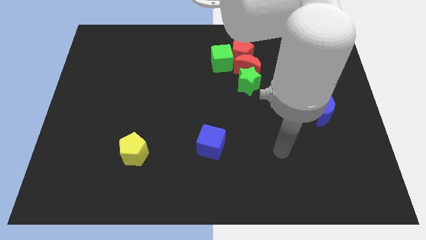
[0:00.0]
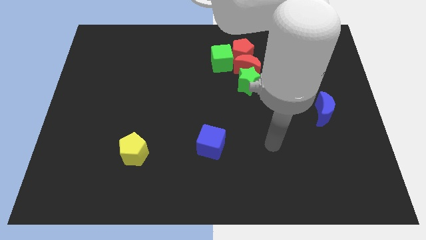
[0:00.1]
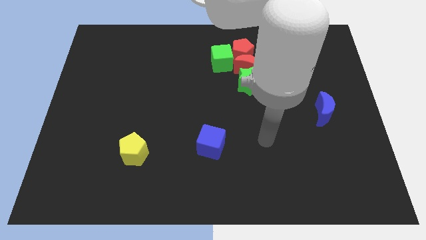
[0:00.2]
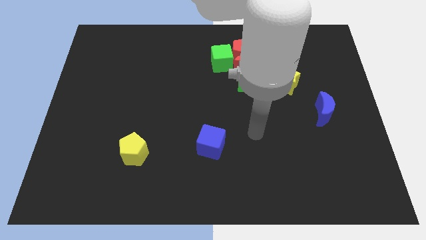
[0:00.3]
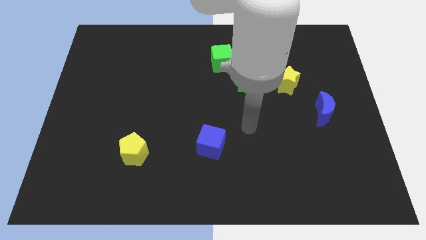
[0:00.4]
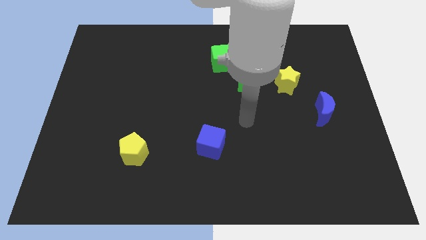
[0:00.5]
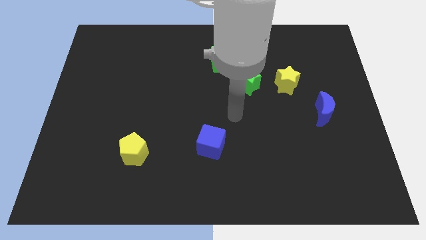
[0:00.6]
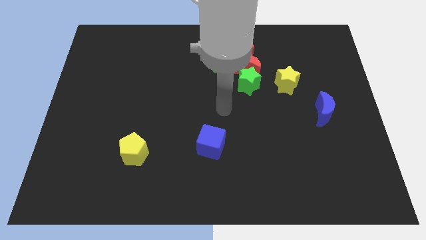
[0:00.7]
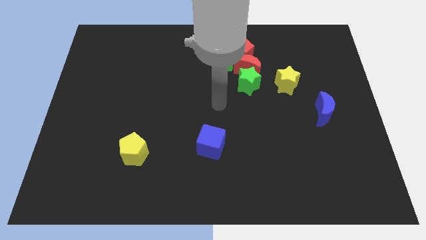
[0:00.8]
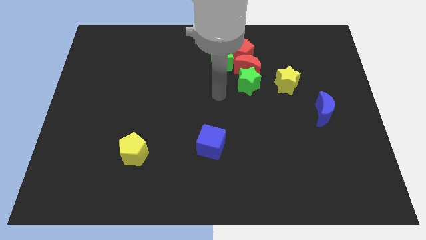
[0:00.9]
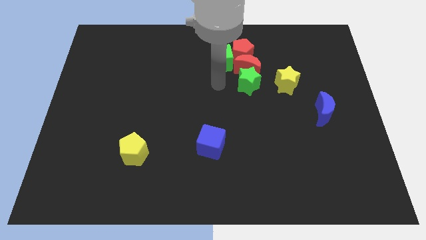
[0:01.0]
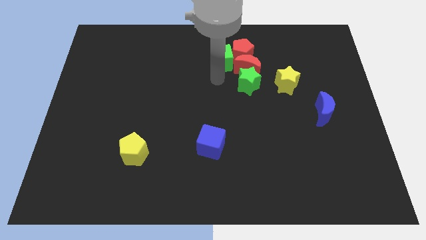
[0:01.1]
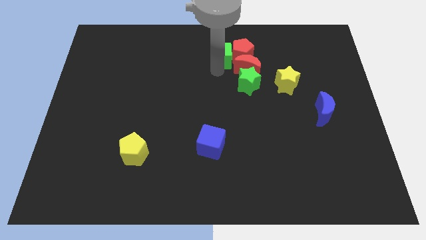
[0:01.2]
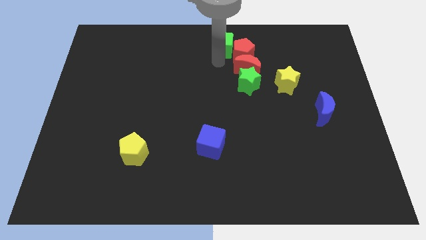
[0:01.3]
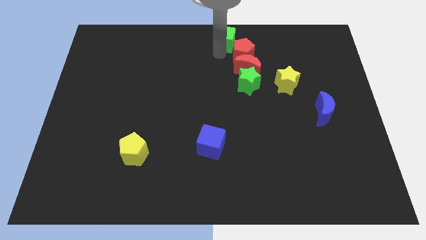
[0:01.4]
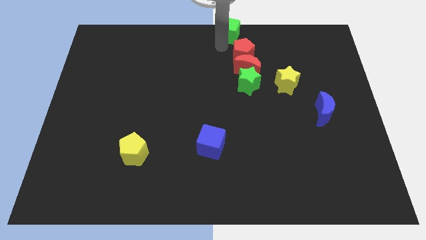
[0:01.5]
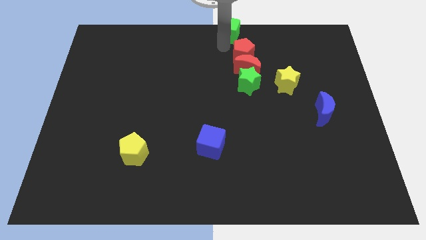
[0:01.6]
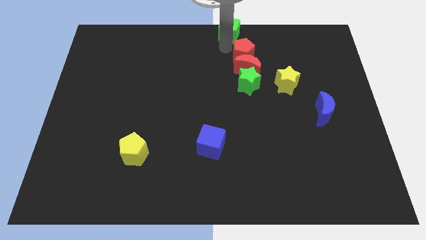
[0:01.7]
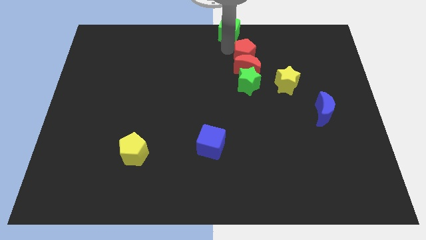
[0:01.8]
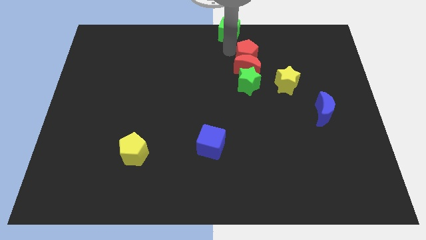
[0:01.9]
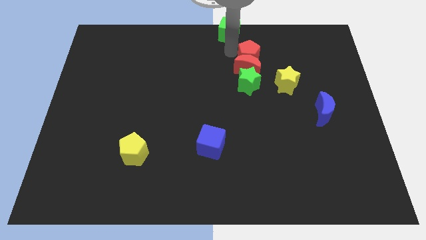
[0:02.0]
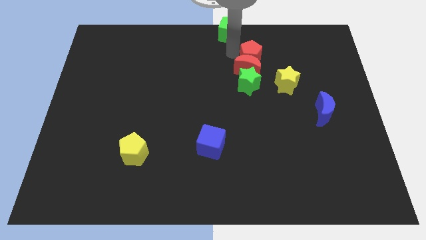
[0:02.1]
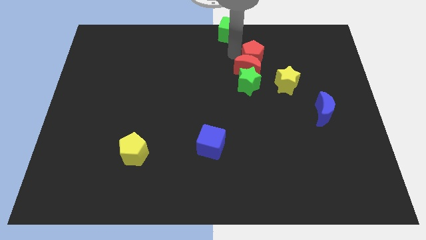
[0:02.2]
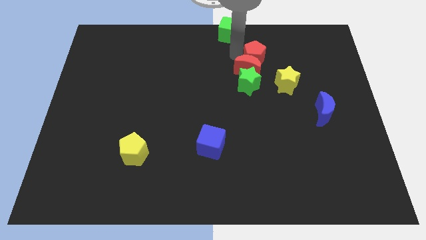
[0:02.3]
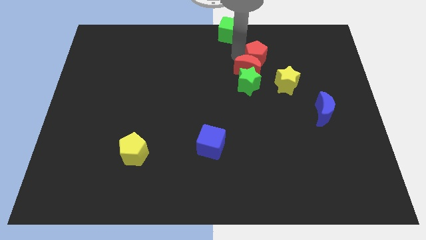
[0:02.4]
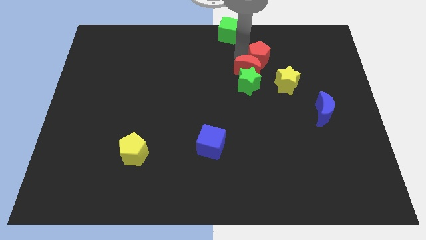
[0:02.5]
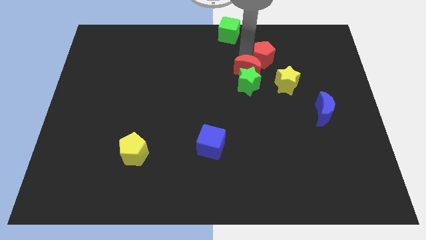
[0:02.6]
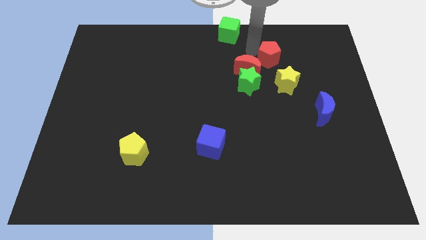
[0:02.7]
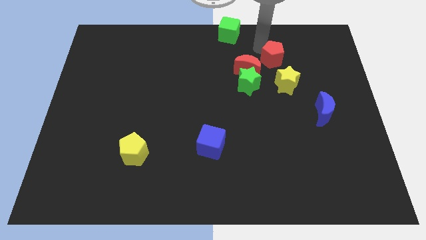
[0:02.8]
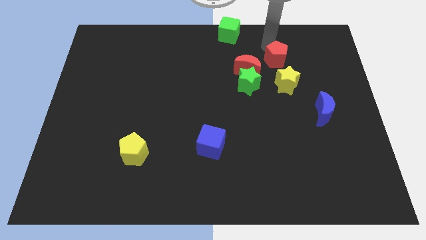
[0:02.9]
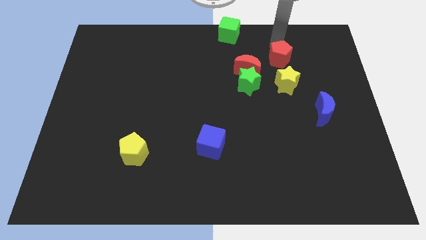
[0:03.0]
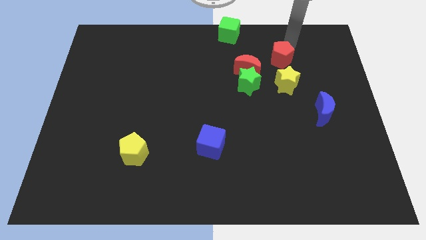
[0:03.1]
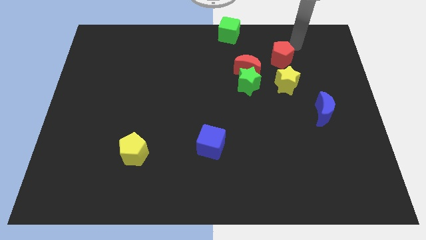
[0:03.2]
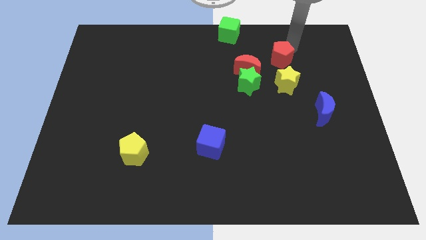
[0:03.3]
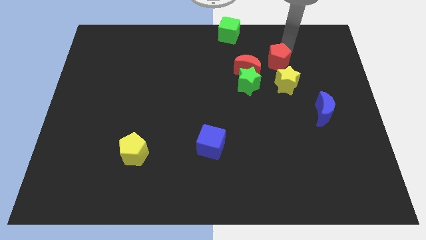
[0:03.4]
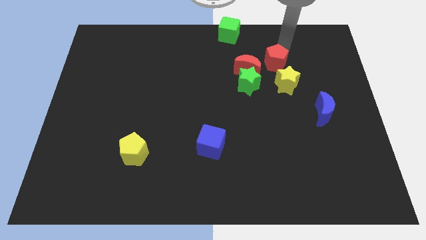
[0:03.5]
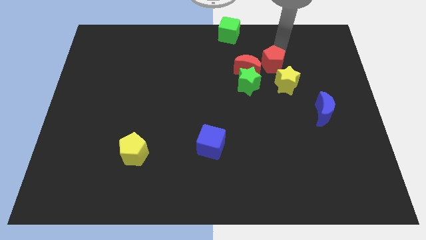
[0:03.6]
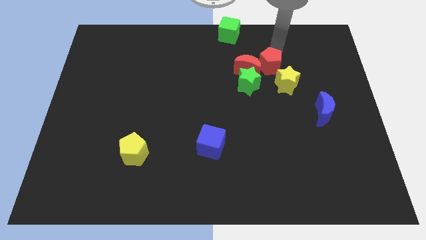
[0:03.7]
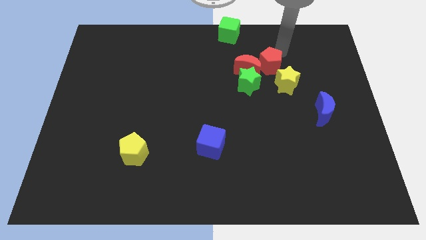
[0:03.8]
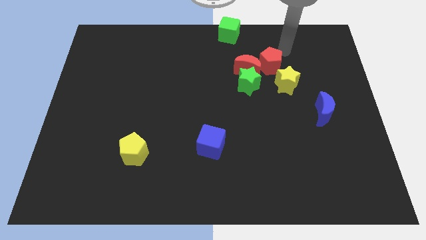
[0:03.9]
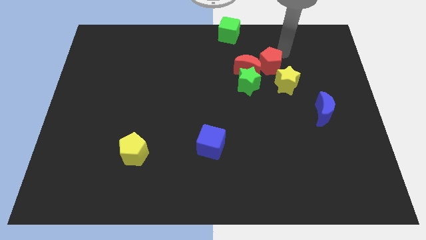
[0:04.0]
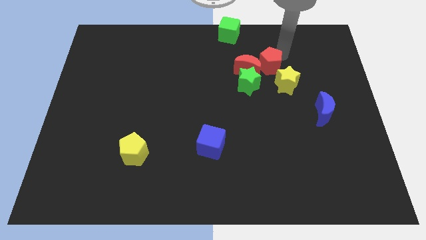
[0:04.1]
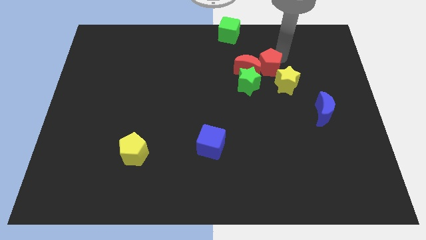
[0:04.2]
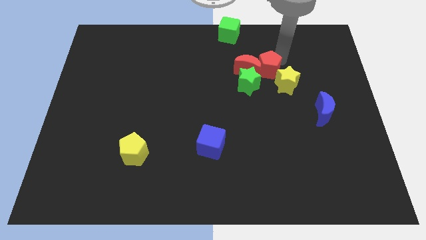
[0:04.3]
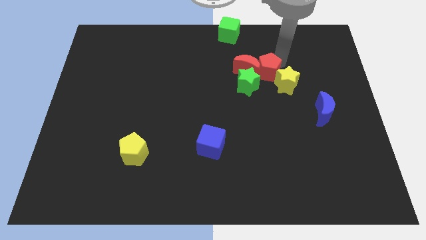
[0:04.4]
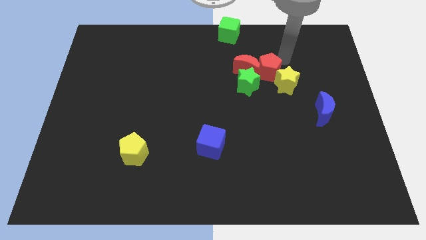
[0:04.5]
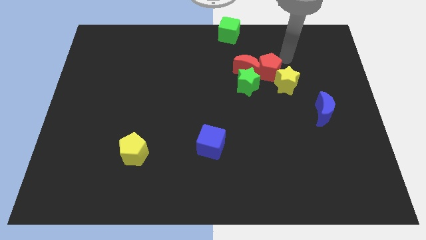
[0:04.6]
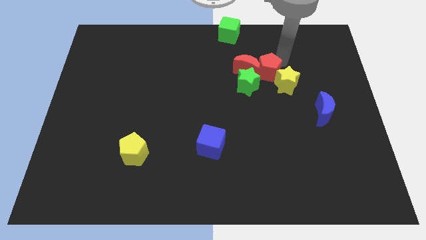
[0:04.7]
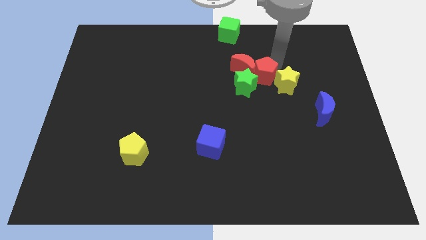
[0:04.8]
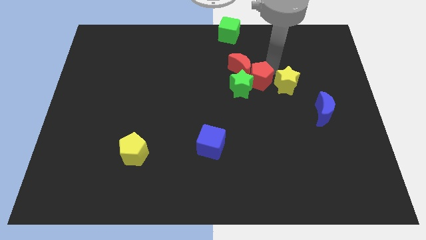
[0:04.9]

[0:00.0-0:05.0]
move the red pentagon towards the green star

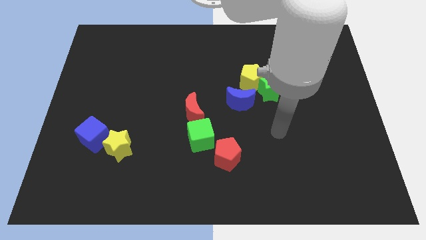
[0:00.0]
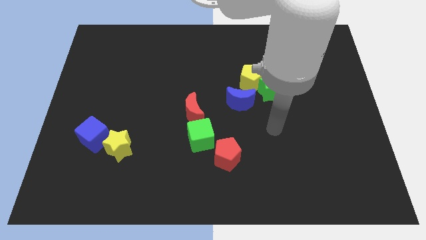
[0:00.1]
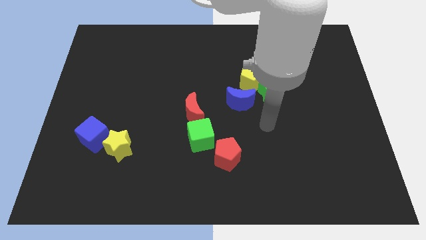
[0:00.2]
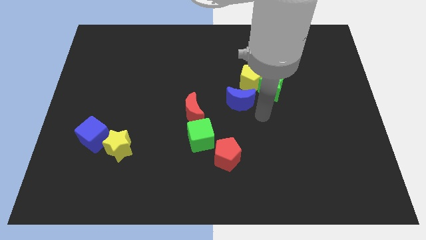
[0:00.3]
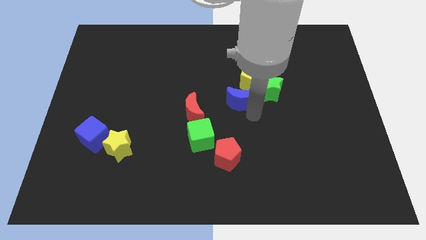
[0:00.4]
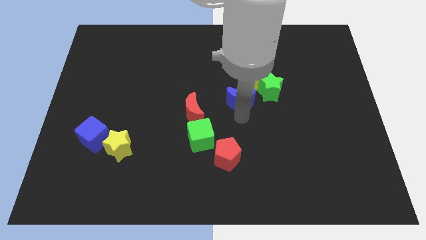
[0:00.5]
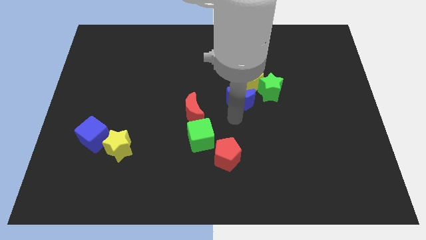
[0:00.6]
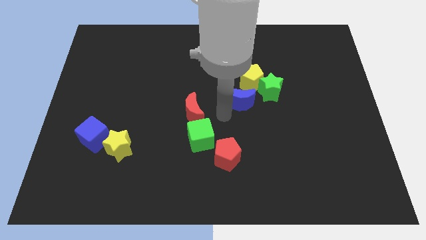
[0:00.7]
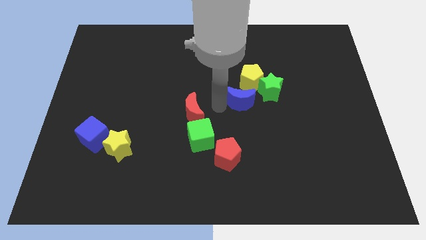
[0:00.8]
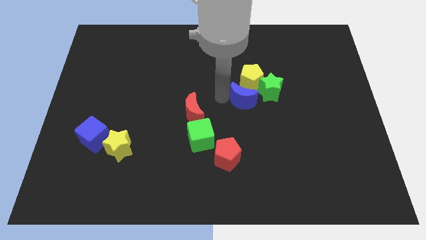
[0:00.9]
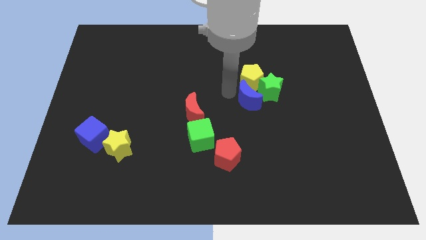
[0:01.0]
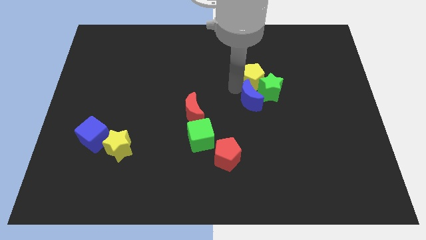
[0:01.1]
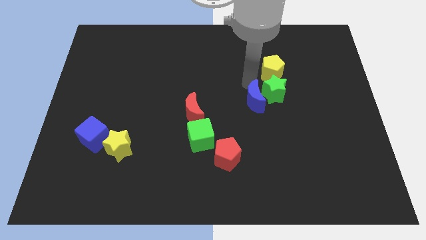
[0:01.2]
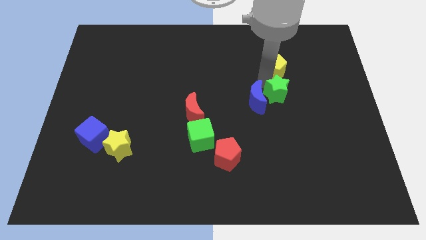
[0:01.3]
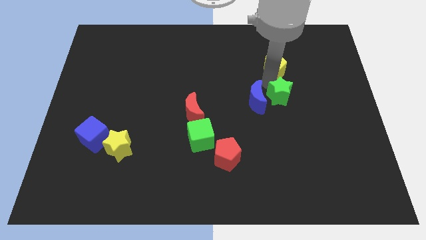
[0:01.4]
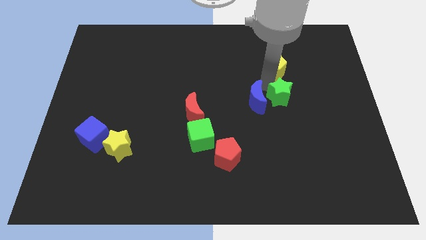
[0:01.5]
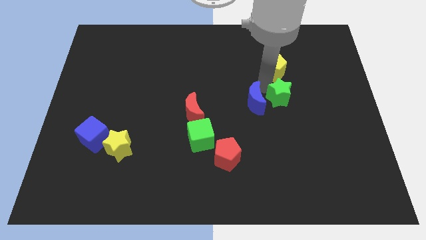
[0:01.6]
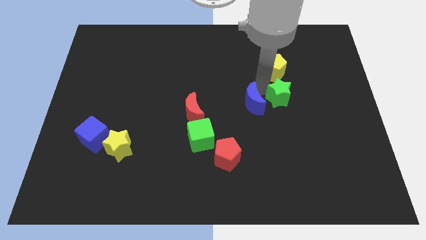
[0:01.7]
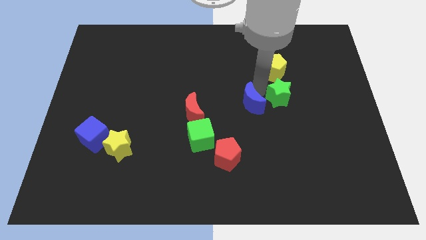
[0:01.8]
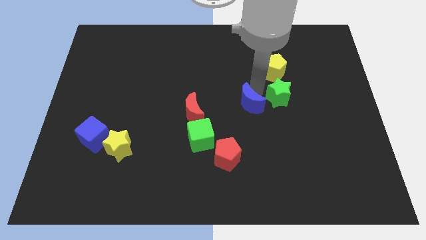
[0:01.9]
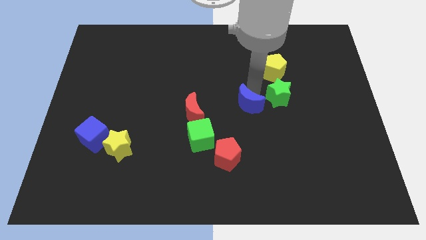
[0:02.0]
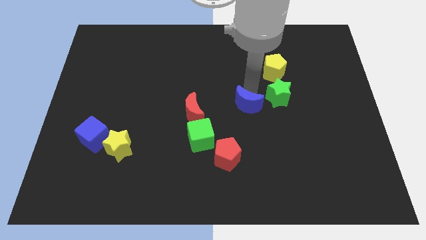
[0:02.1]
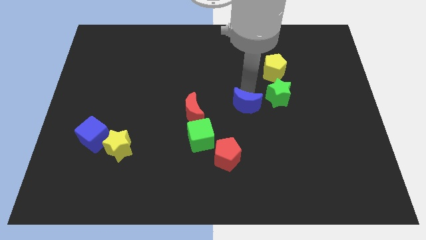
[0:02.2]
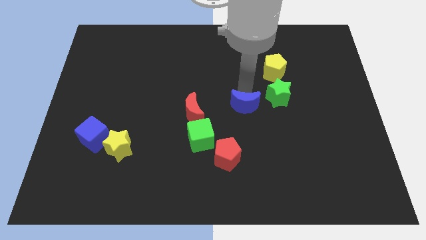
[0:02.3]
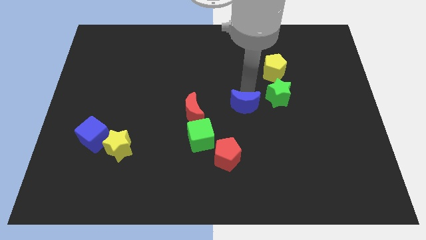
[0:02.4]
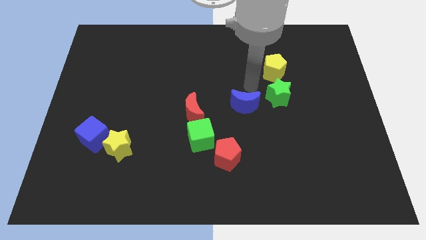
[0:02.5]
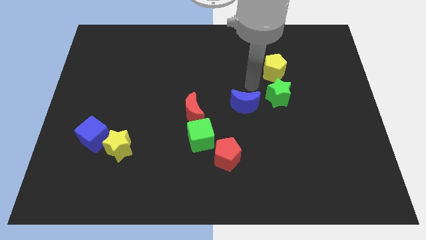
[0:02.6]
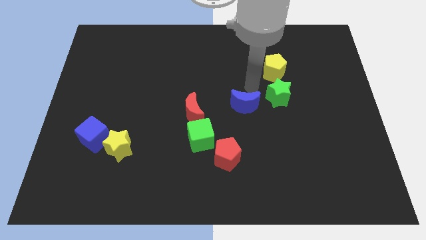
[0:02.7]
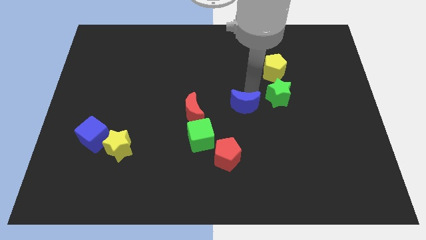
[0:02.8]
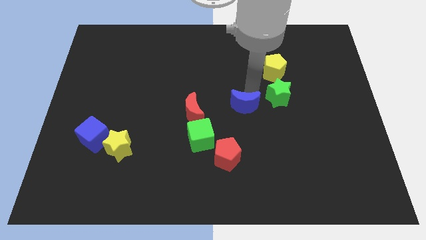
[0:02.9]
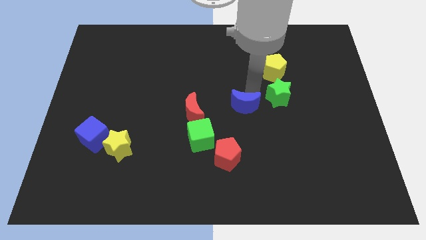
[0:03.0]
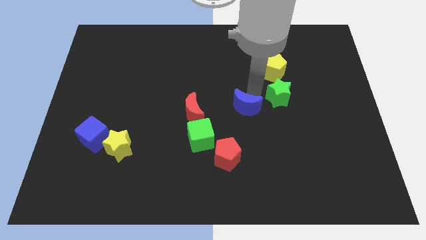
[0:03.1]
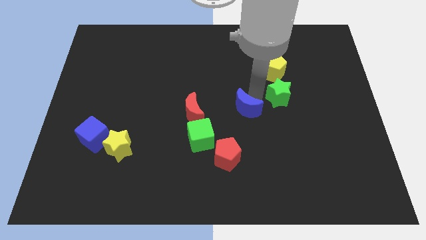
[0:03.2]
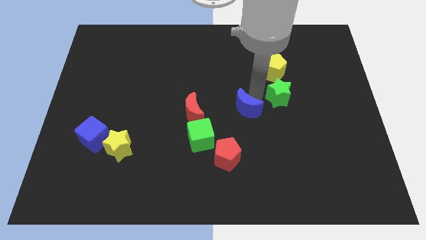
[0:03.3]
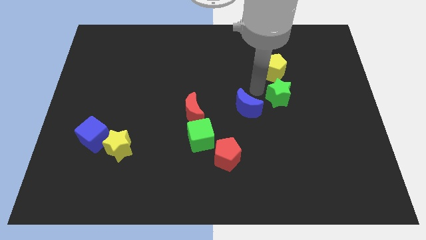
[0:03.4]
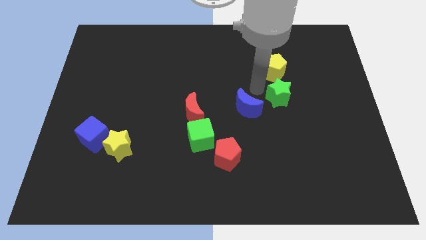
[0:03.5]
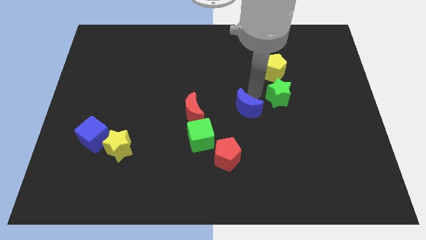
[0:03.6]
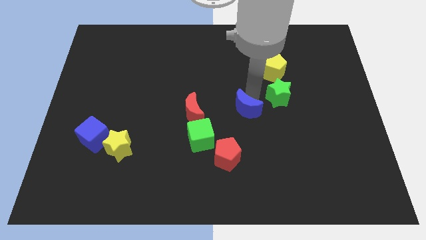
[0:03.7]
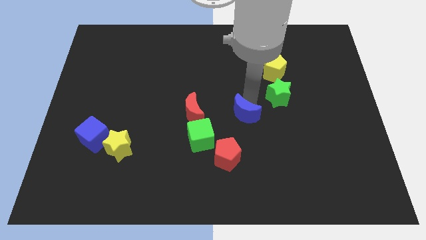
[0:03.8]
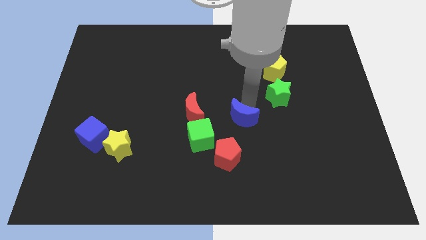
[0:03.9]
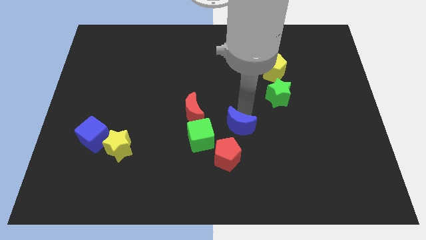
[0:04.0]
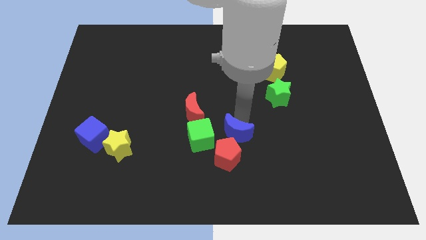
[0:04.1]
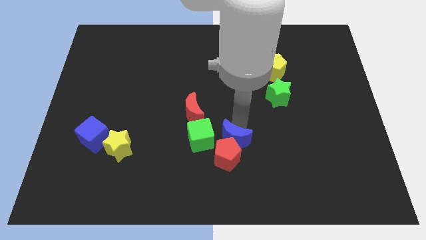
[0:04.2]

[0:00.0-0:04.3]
slide the blue moon next to the red pentagon
